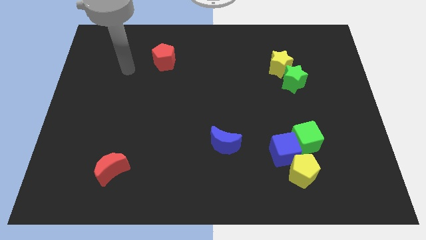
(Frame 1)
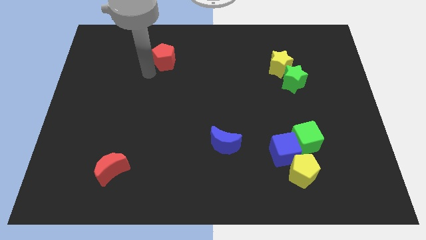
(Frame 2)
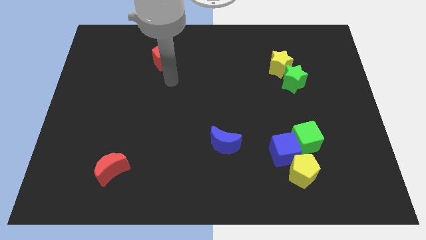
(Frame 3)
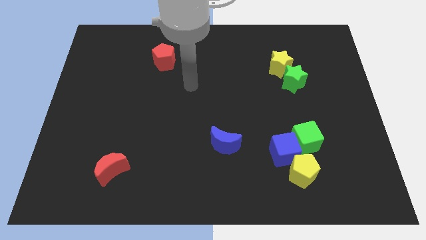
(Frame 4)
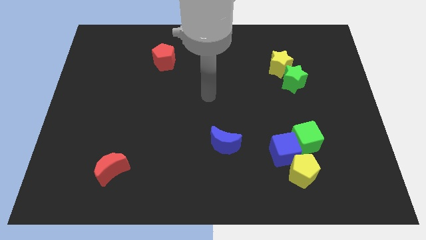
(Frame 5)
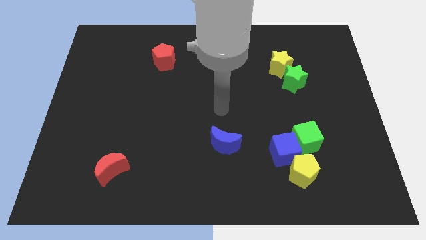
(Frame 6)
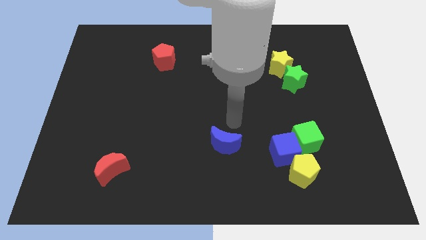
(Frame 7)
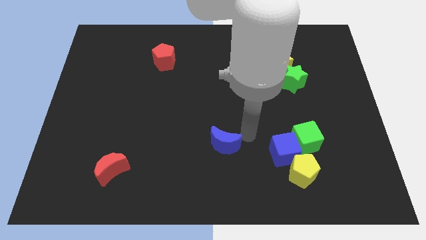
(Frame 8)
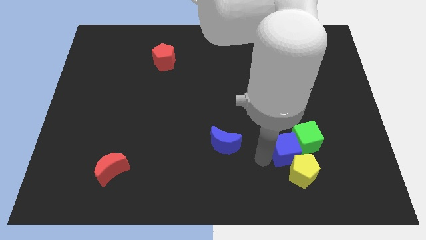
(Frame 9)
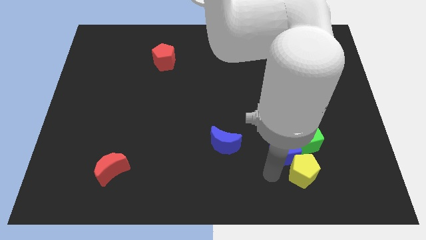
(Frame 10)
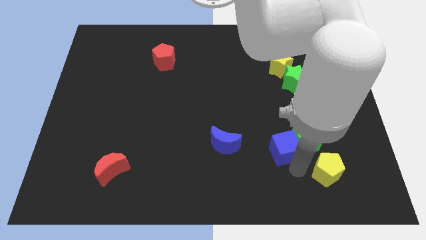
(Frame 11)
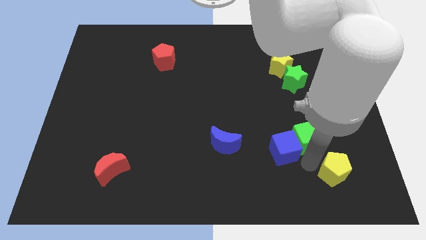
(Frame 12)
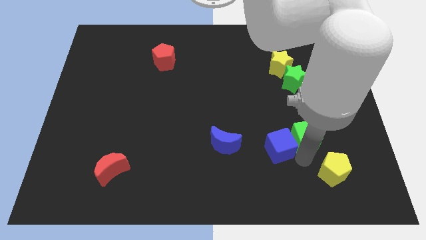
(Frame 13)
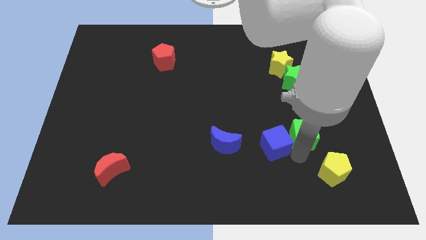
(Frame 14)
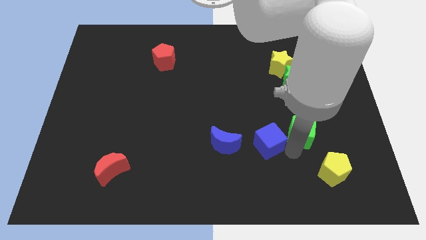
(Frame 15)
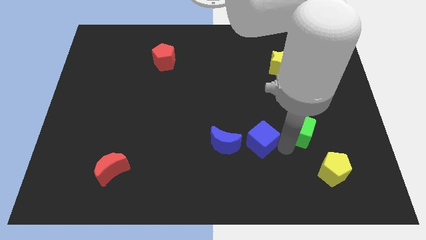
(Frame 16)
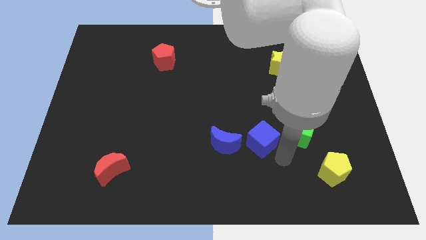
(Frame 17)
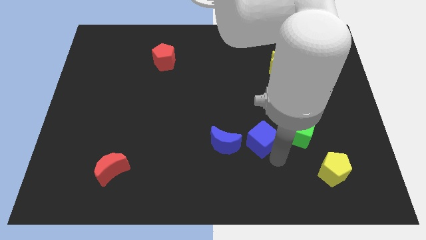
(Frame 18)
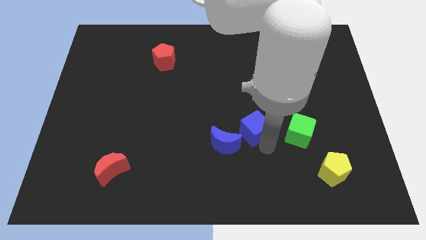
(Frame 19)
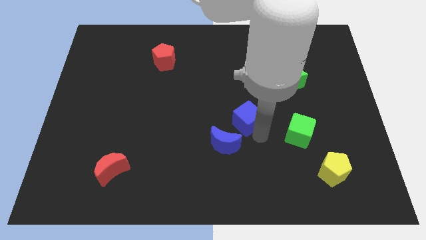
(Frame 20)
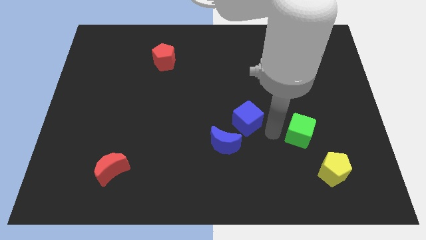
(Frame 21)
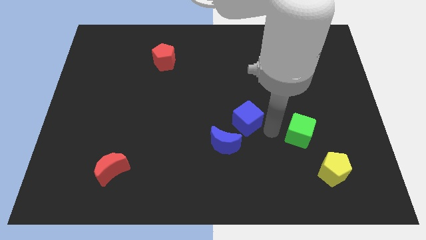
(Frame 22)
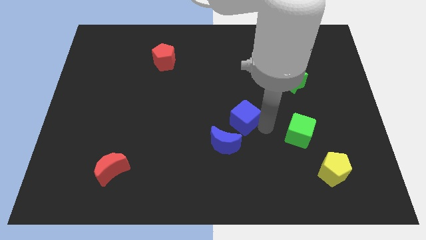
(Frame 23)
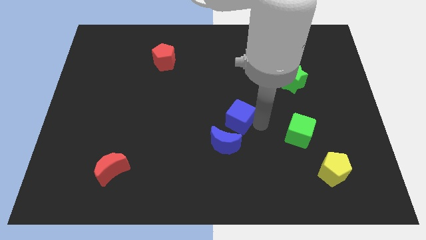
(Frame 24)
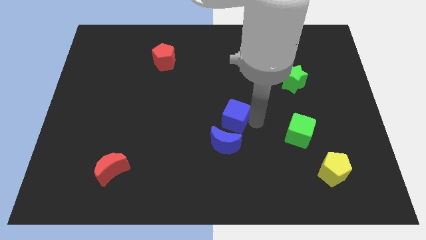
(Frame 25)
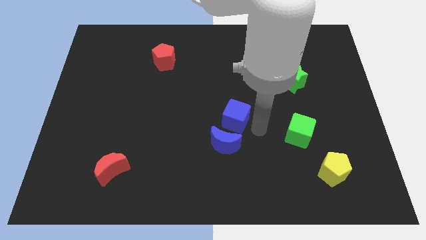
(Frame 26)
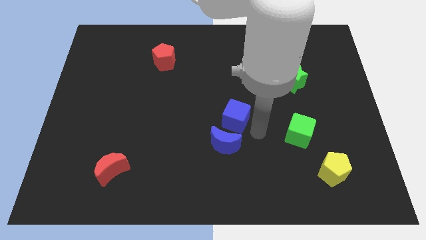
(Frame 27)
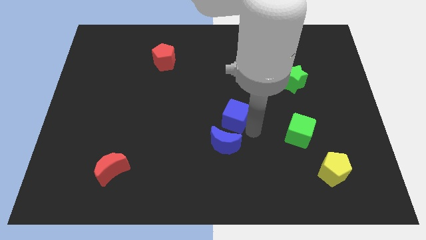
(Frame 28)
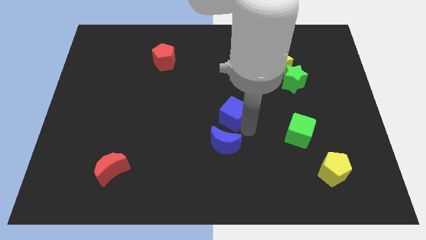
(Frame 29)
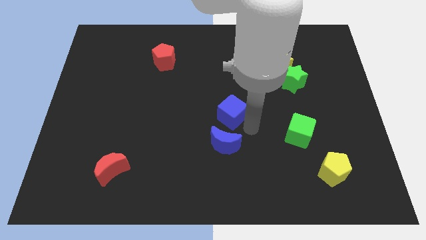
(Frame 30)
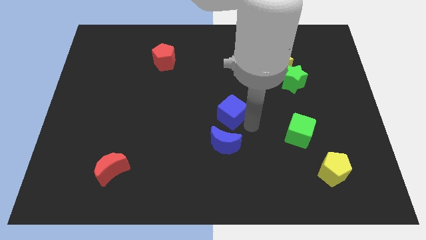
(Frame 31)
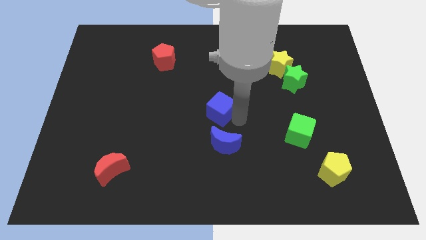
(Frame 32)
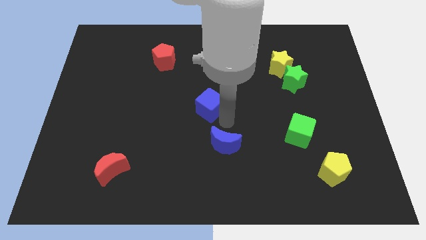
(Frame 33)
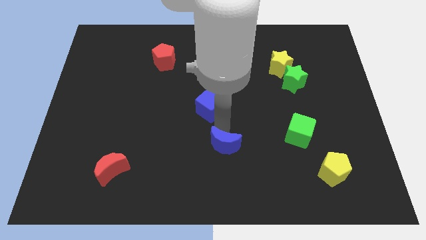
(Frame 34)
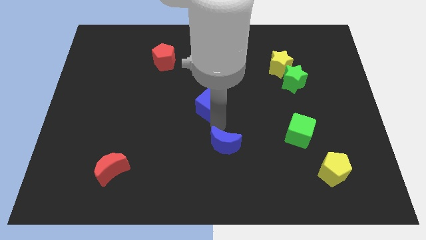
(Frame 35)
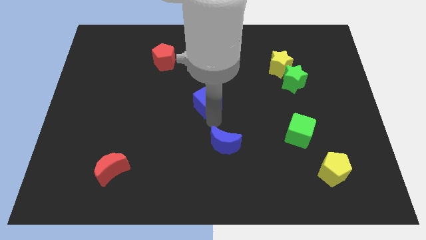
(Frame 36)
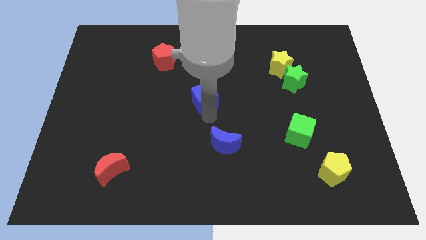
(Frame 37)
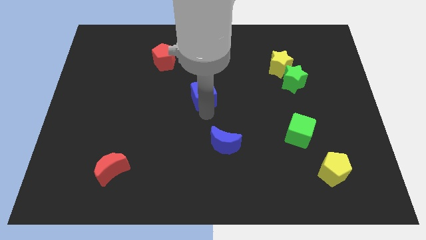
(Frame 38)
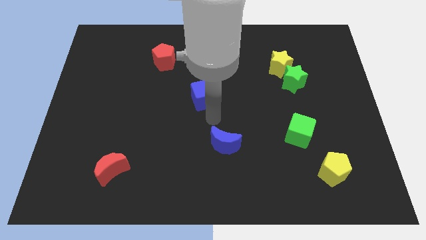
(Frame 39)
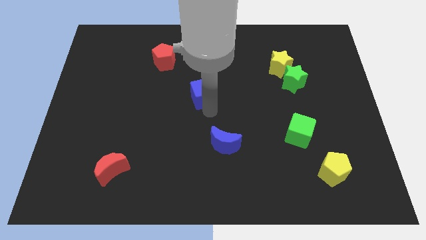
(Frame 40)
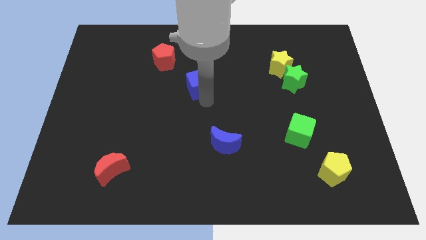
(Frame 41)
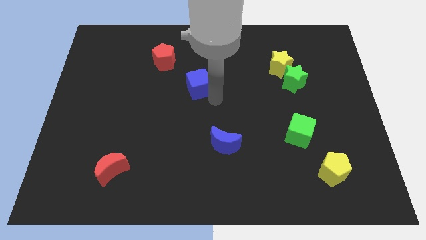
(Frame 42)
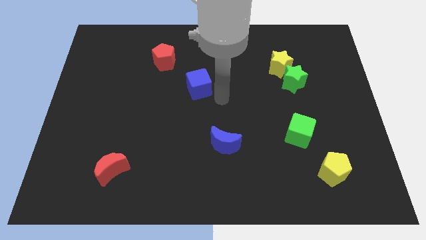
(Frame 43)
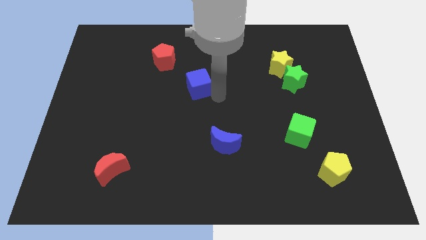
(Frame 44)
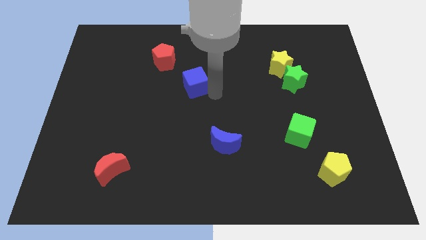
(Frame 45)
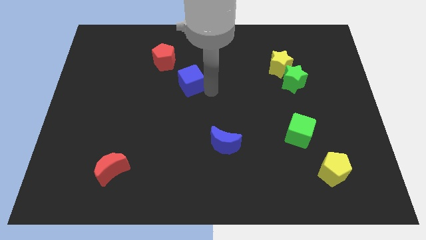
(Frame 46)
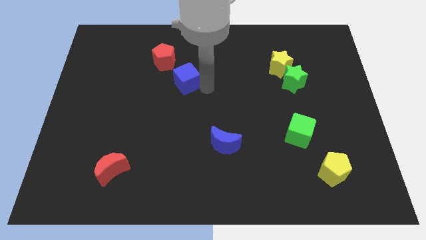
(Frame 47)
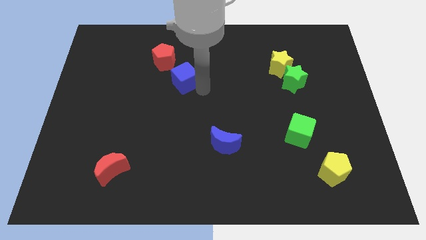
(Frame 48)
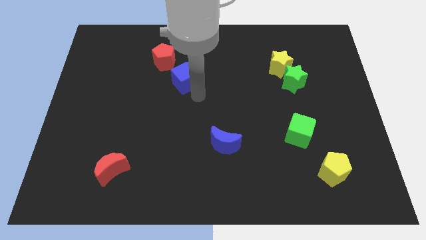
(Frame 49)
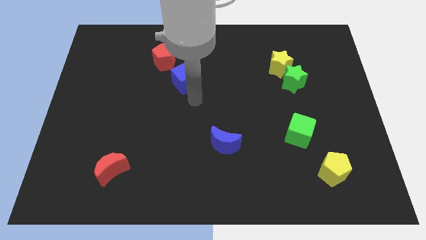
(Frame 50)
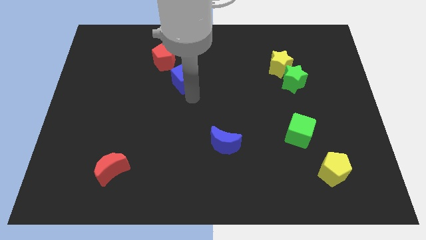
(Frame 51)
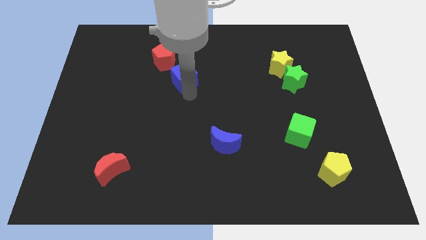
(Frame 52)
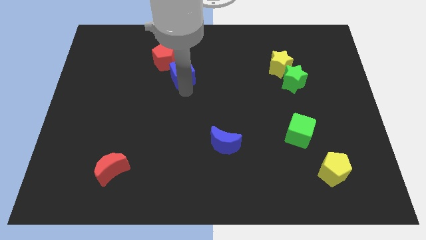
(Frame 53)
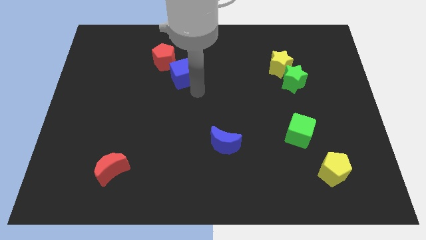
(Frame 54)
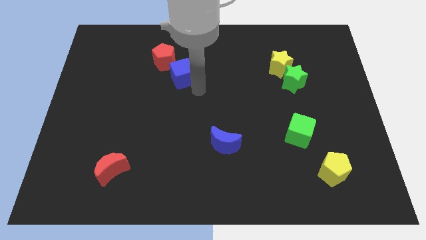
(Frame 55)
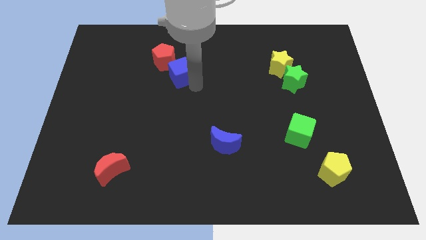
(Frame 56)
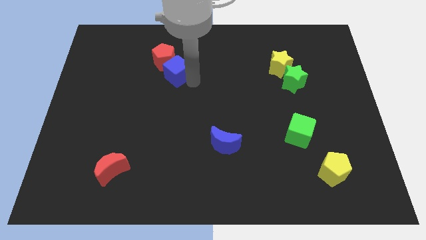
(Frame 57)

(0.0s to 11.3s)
slide the blue cube towards the red pentagon

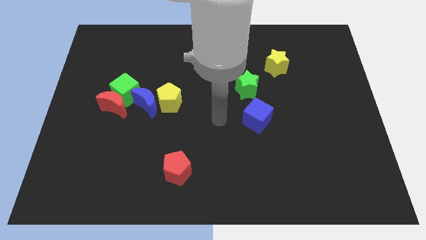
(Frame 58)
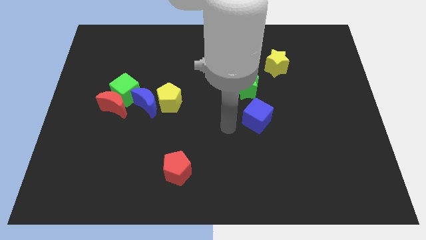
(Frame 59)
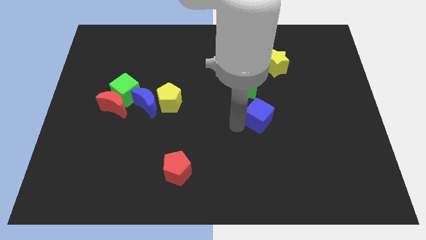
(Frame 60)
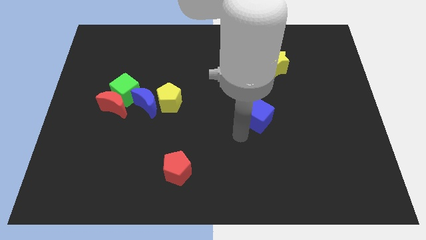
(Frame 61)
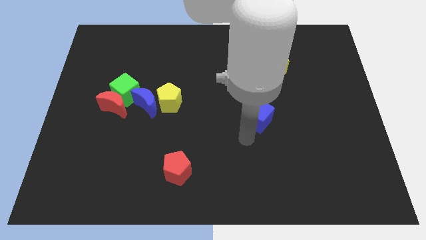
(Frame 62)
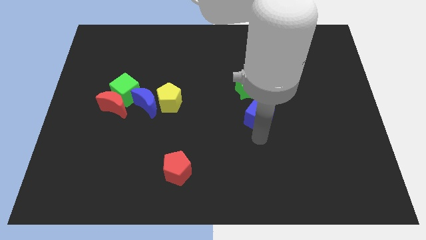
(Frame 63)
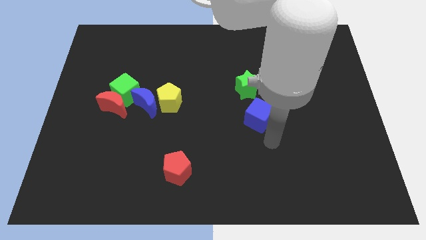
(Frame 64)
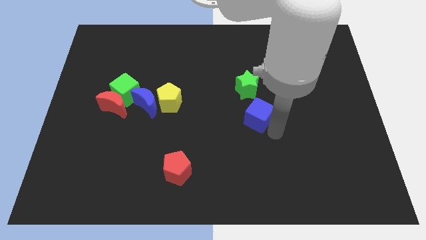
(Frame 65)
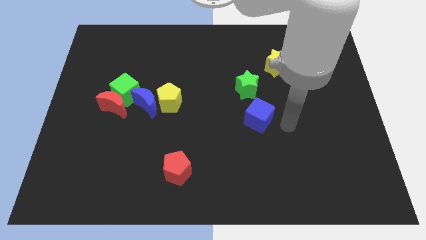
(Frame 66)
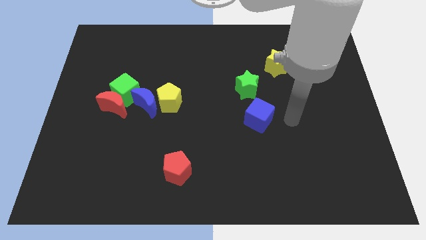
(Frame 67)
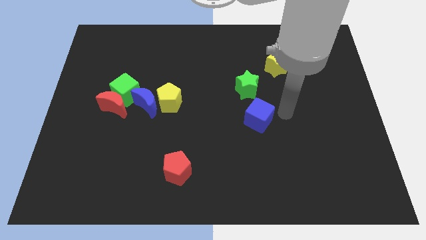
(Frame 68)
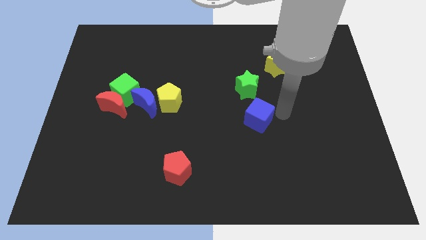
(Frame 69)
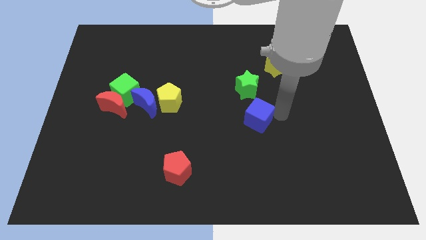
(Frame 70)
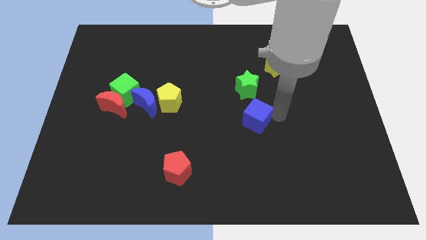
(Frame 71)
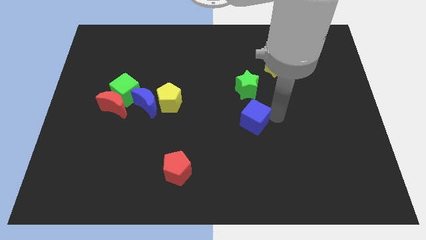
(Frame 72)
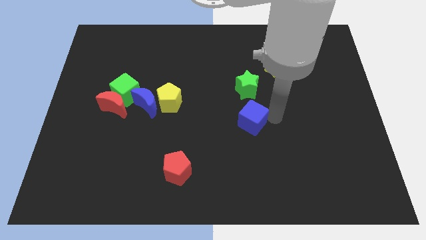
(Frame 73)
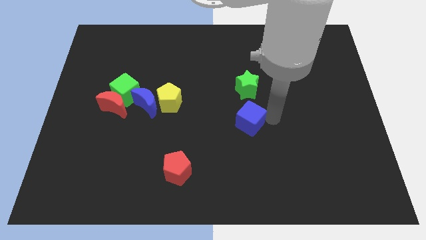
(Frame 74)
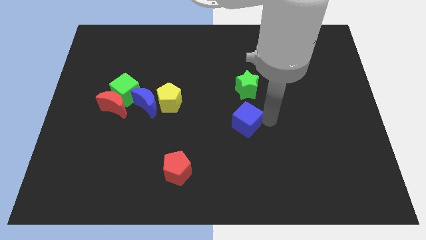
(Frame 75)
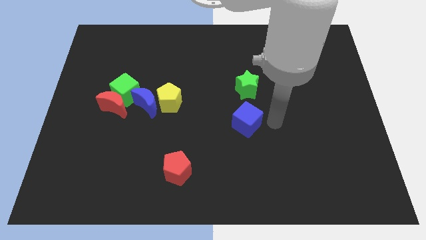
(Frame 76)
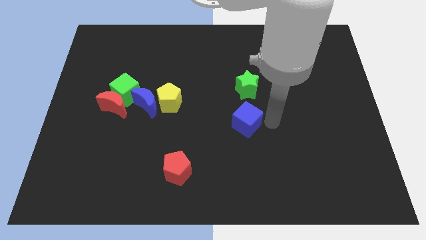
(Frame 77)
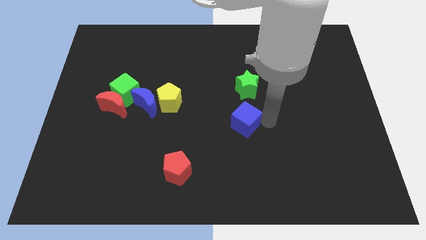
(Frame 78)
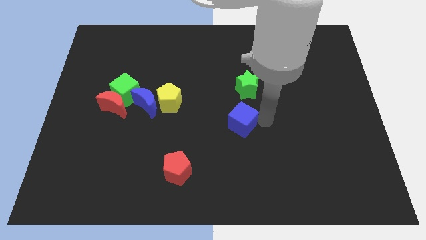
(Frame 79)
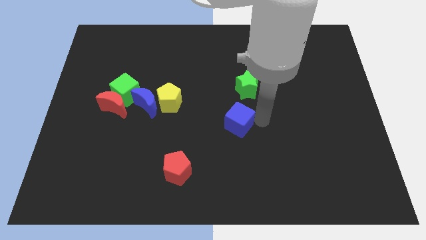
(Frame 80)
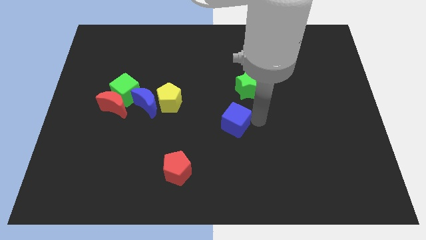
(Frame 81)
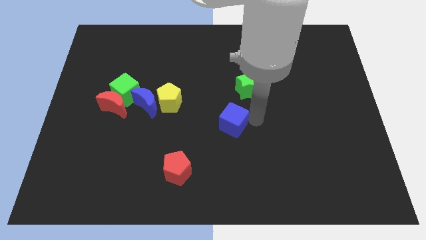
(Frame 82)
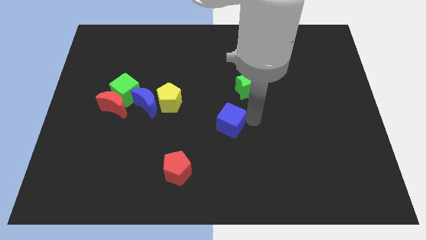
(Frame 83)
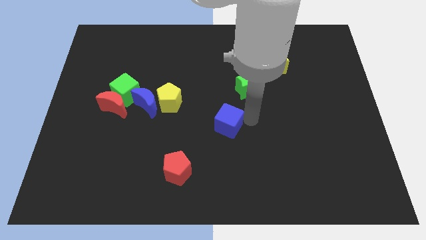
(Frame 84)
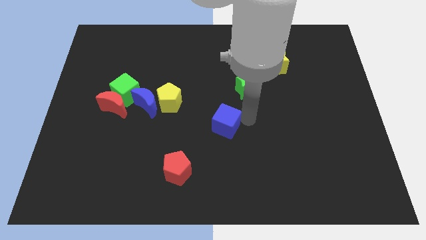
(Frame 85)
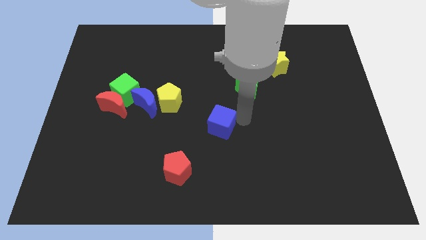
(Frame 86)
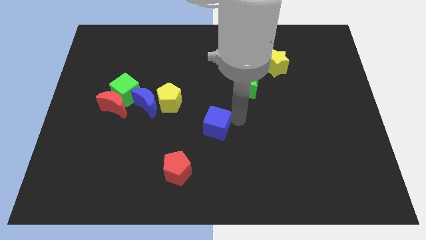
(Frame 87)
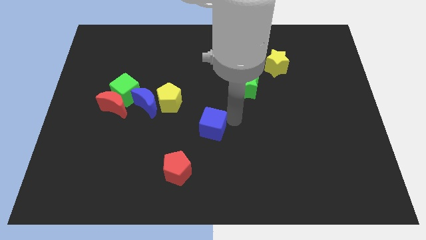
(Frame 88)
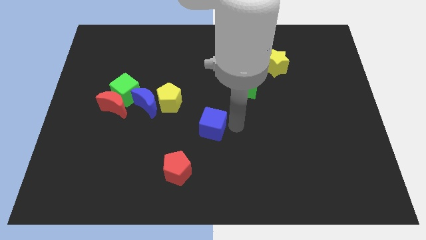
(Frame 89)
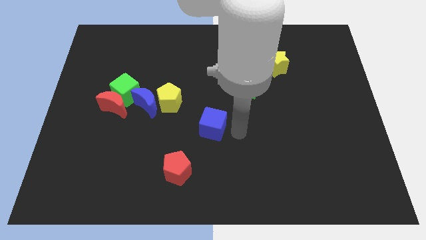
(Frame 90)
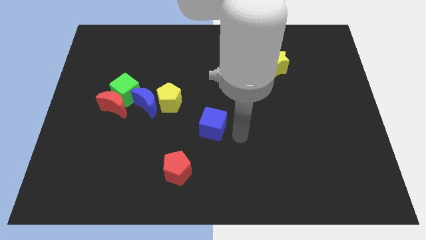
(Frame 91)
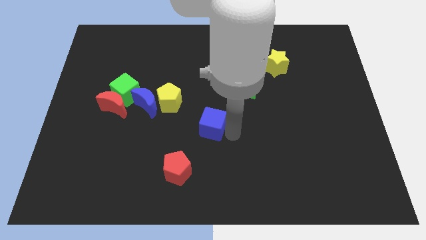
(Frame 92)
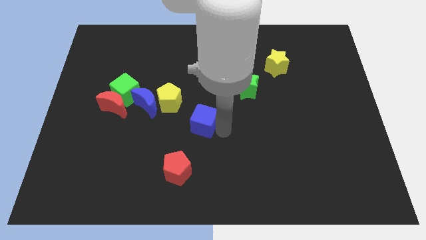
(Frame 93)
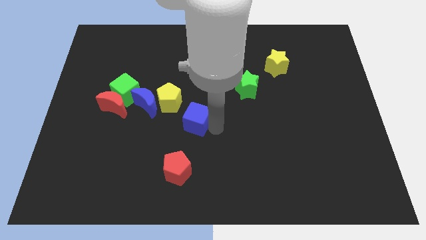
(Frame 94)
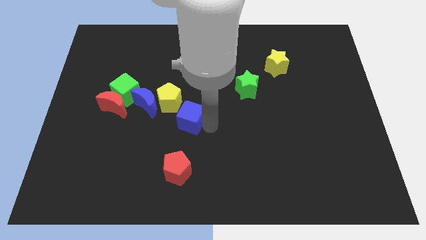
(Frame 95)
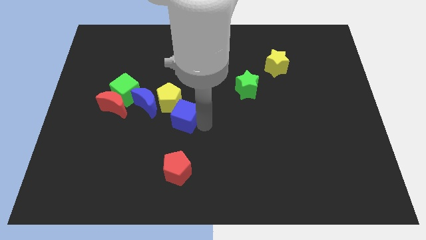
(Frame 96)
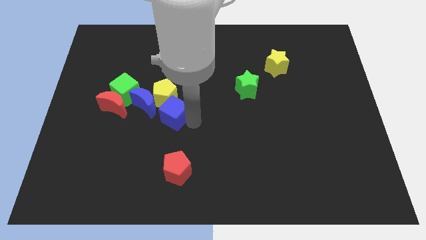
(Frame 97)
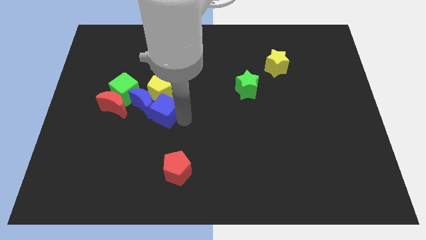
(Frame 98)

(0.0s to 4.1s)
slide the blue cube towards the blue moon
